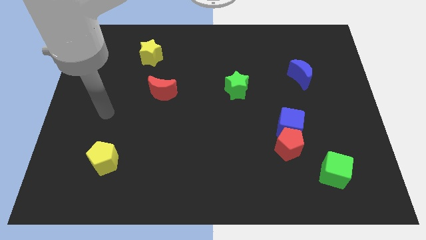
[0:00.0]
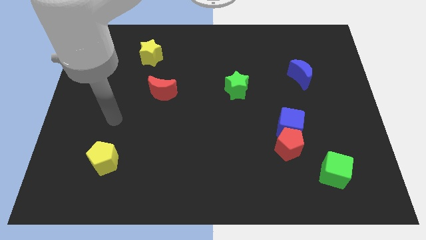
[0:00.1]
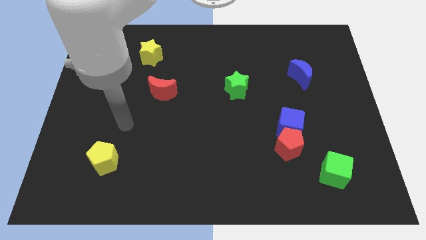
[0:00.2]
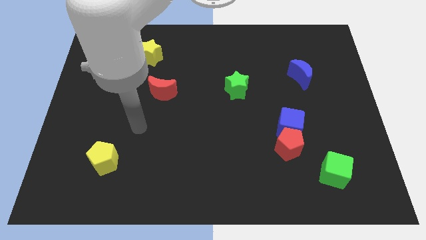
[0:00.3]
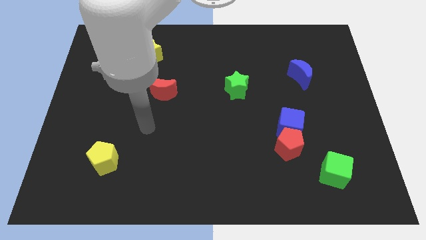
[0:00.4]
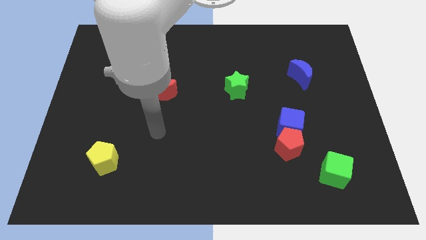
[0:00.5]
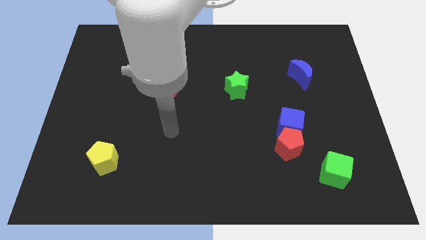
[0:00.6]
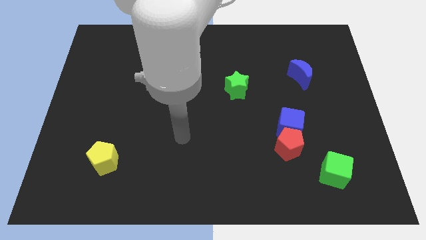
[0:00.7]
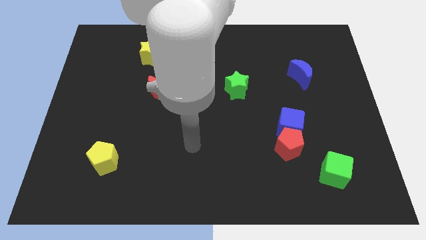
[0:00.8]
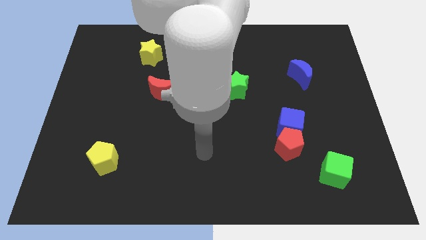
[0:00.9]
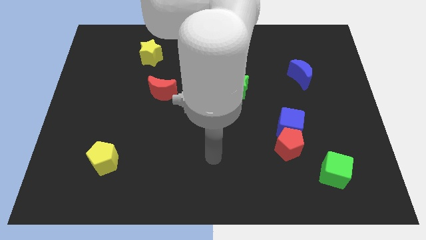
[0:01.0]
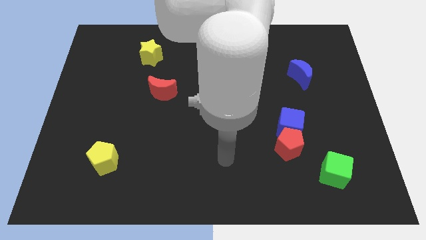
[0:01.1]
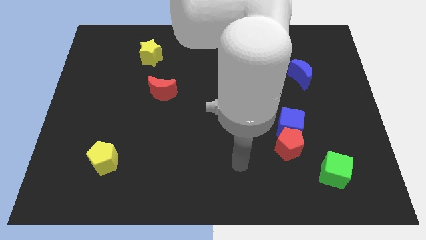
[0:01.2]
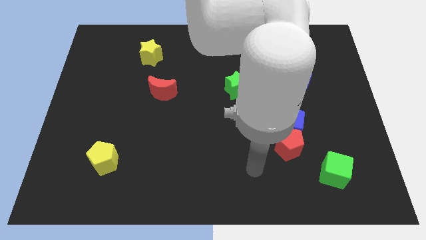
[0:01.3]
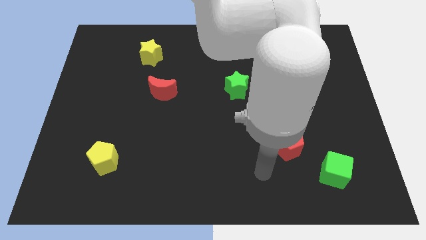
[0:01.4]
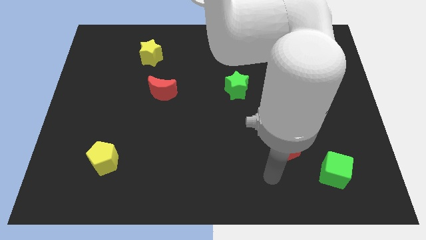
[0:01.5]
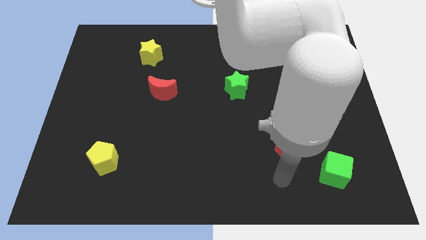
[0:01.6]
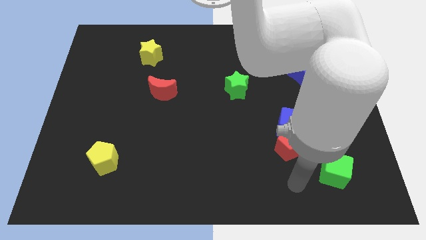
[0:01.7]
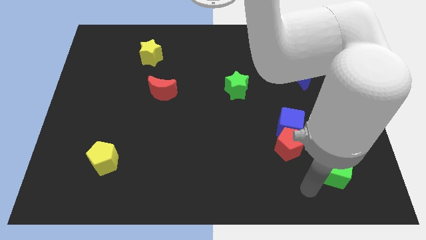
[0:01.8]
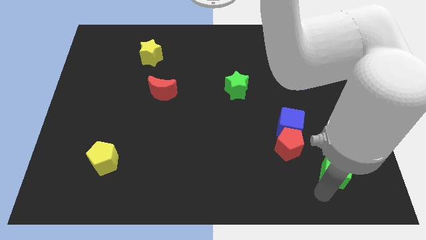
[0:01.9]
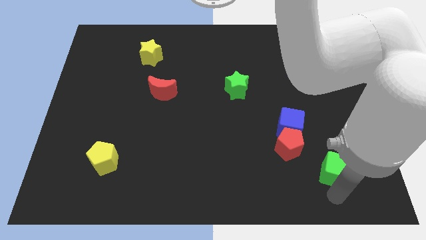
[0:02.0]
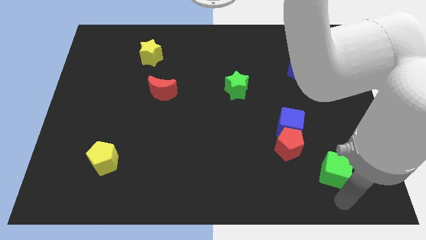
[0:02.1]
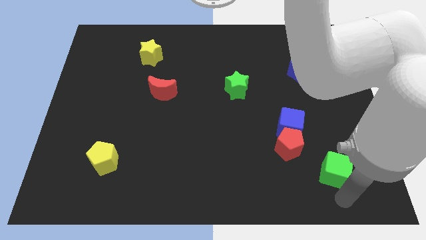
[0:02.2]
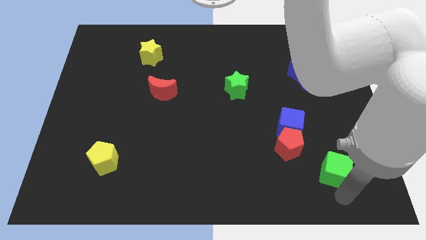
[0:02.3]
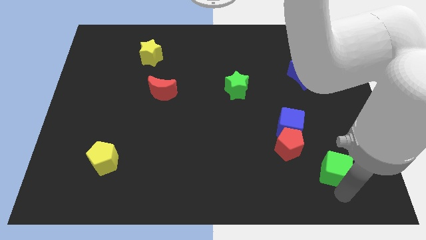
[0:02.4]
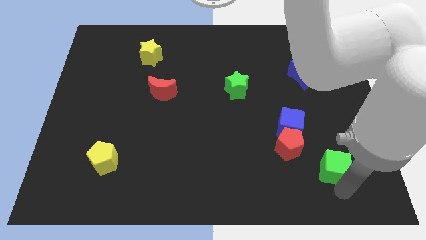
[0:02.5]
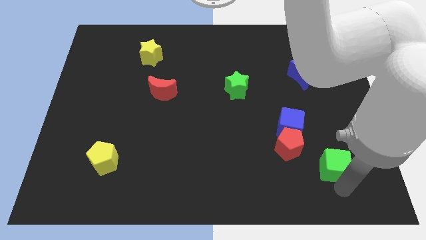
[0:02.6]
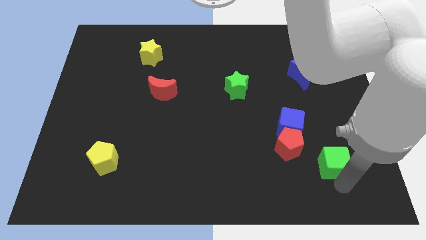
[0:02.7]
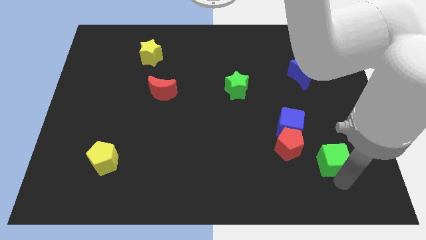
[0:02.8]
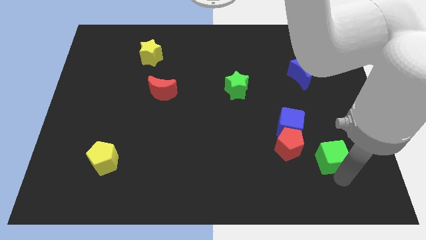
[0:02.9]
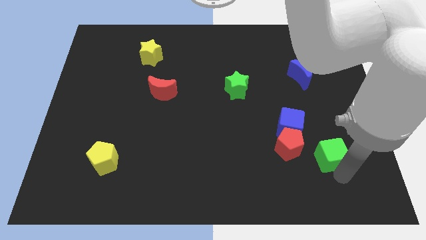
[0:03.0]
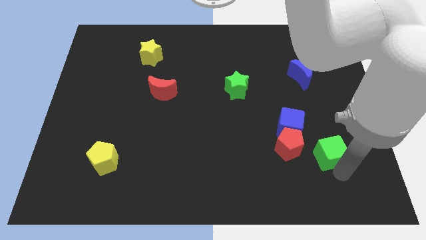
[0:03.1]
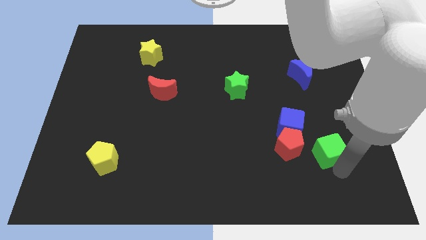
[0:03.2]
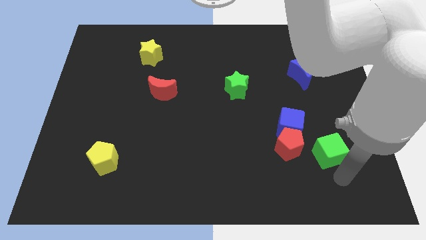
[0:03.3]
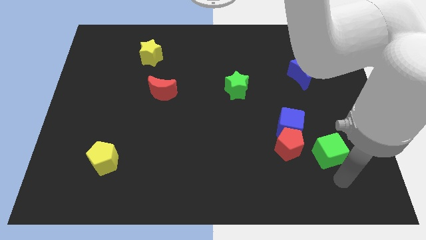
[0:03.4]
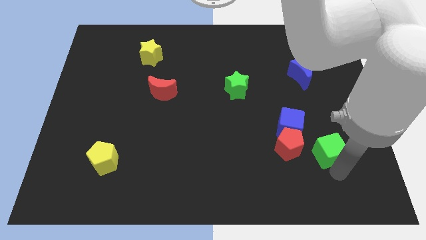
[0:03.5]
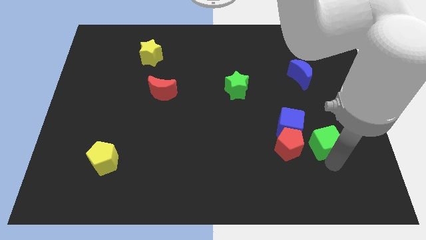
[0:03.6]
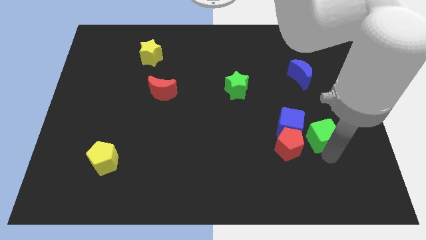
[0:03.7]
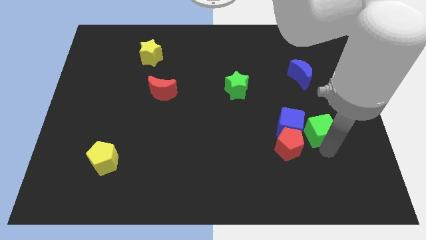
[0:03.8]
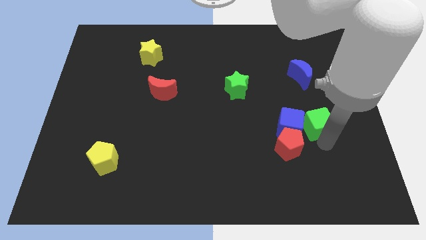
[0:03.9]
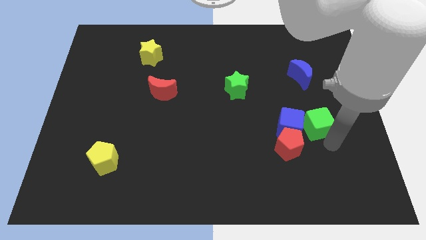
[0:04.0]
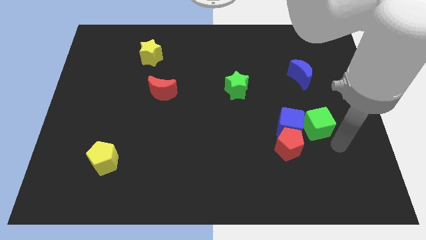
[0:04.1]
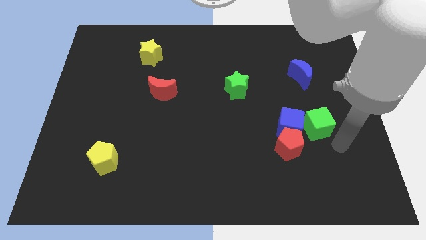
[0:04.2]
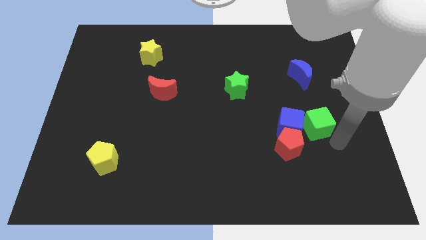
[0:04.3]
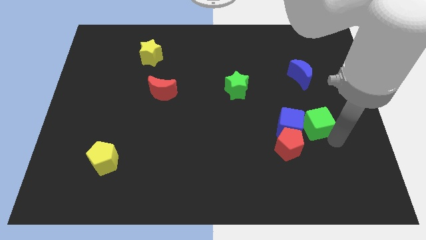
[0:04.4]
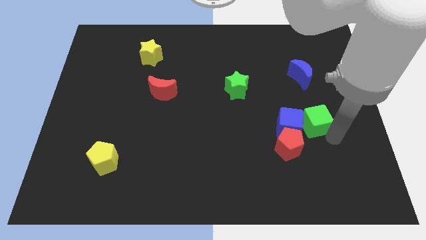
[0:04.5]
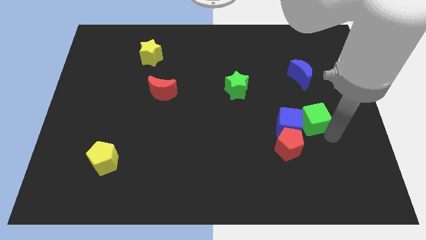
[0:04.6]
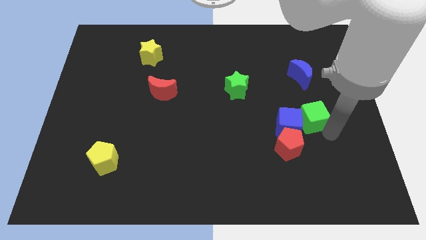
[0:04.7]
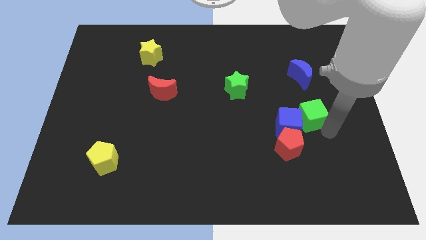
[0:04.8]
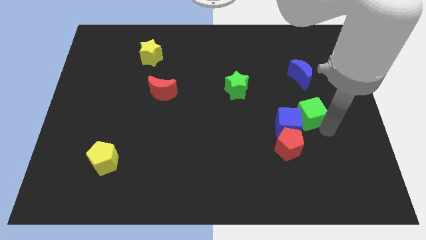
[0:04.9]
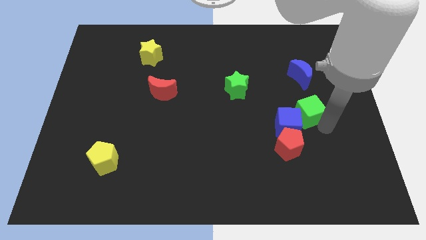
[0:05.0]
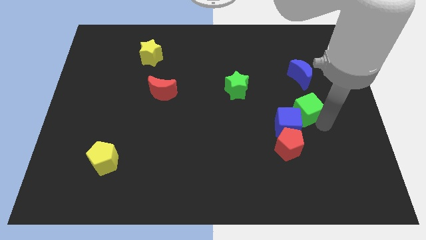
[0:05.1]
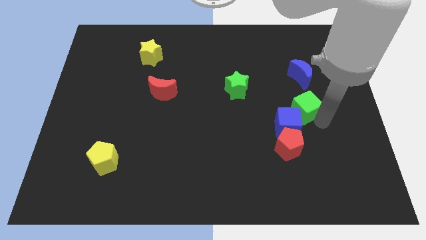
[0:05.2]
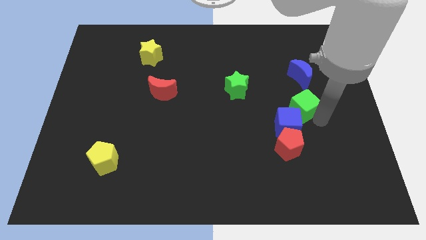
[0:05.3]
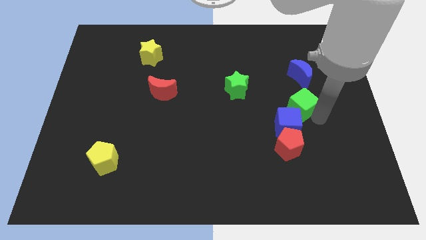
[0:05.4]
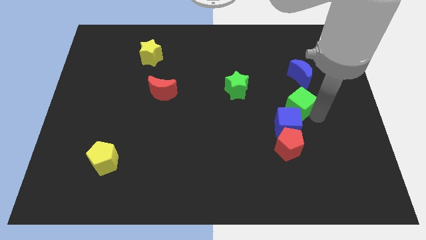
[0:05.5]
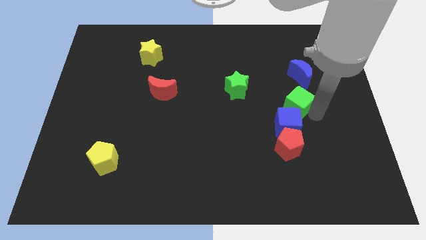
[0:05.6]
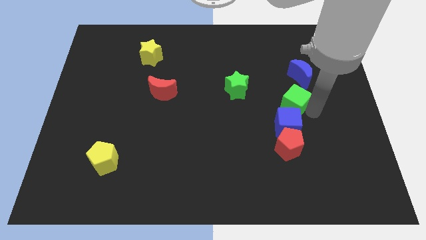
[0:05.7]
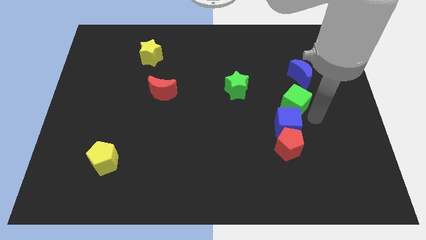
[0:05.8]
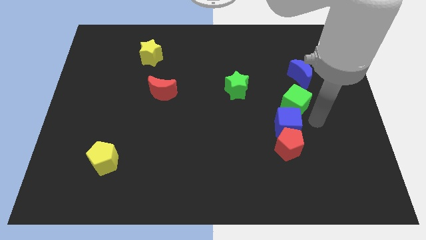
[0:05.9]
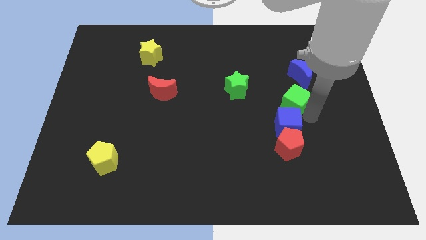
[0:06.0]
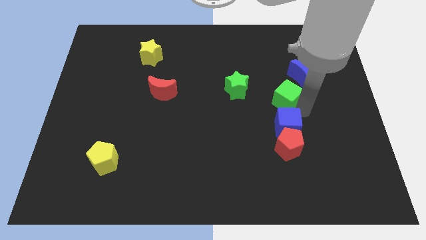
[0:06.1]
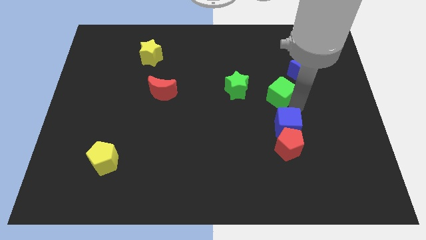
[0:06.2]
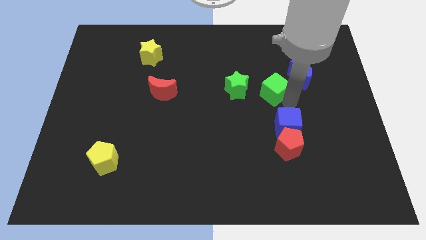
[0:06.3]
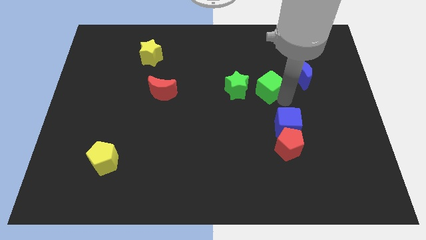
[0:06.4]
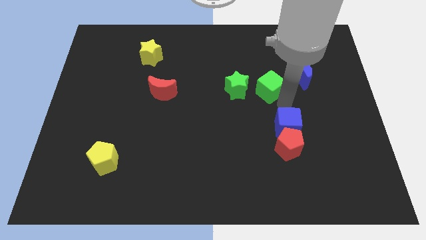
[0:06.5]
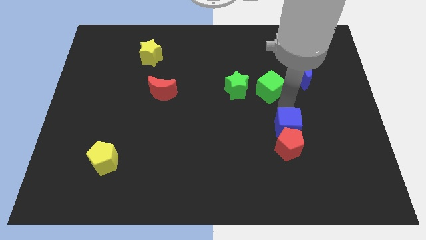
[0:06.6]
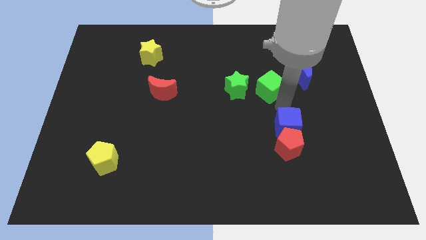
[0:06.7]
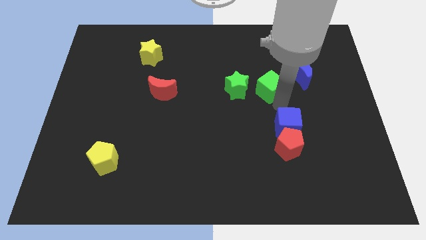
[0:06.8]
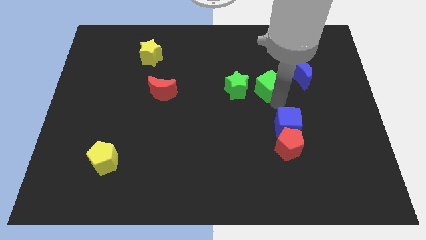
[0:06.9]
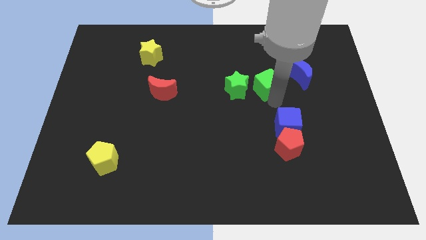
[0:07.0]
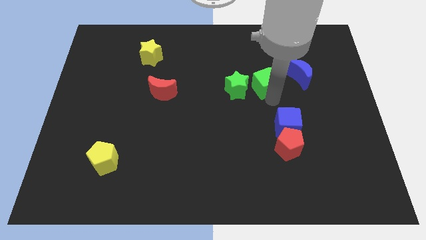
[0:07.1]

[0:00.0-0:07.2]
put the green cube diagonally up and to the right of the green star
